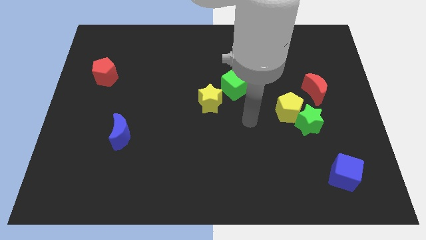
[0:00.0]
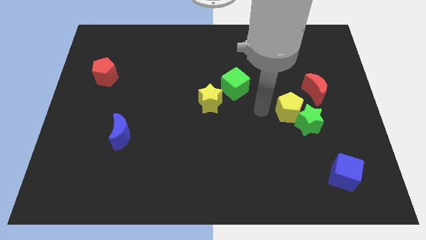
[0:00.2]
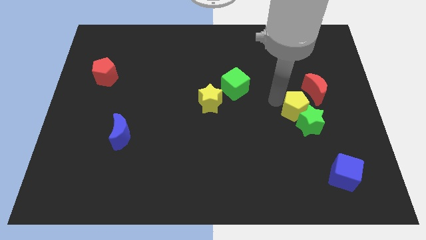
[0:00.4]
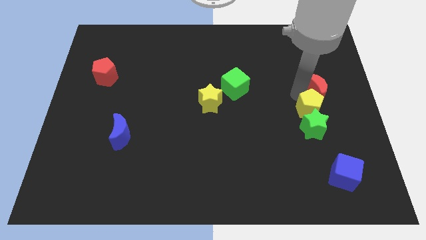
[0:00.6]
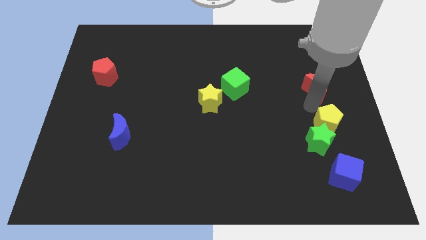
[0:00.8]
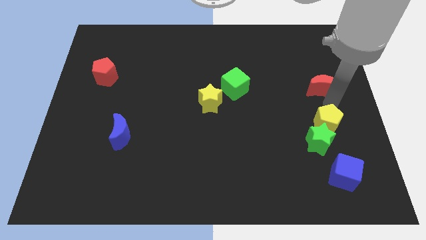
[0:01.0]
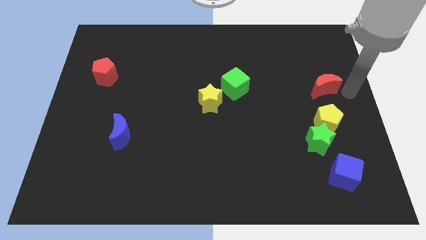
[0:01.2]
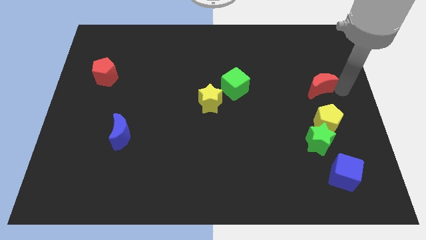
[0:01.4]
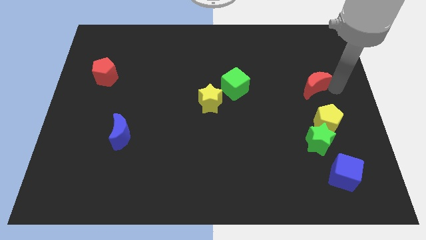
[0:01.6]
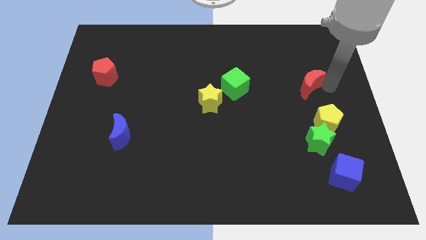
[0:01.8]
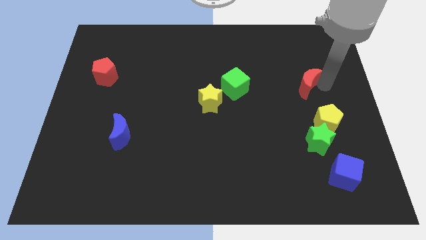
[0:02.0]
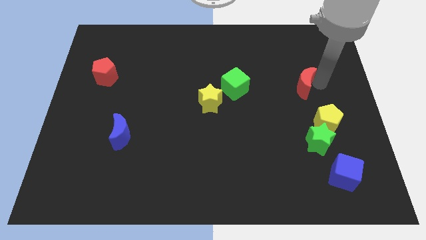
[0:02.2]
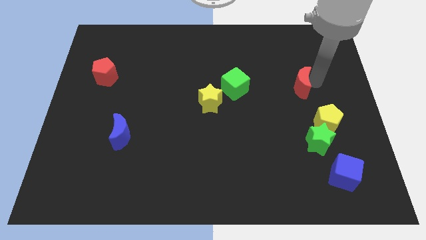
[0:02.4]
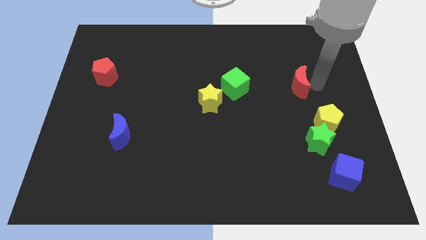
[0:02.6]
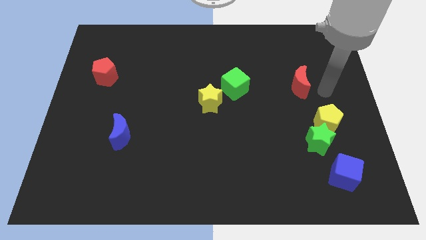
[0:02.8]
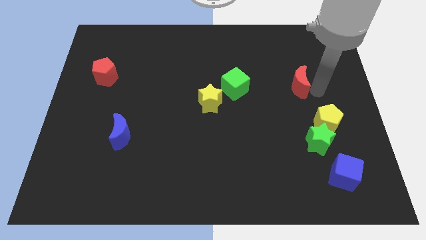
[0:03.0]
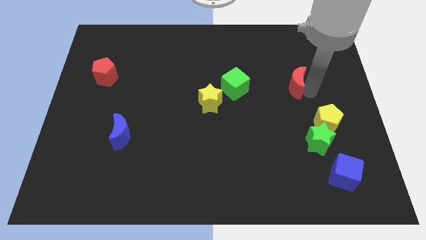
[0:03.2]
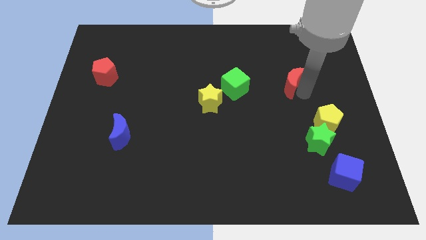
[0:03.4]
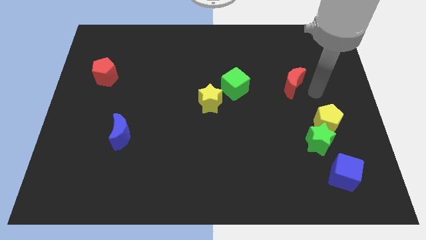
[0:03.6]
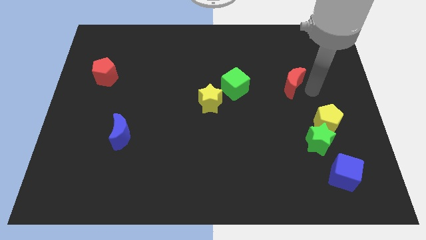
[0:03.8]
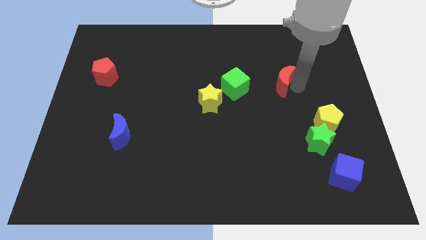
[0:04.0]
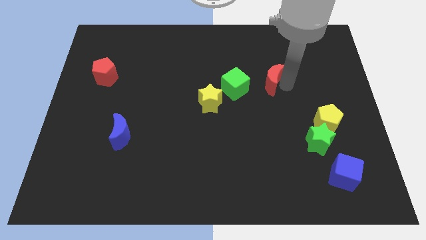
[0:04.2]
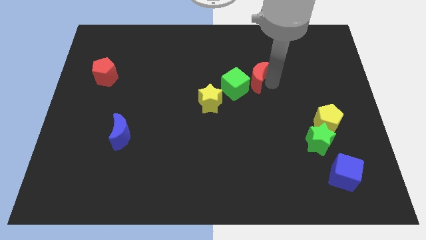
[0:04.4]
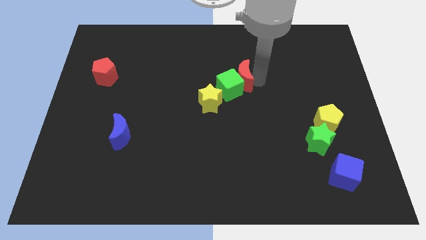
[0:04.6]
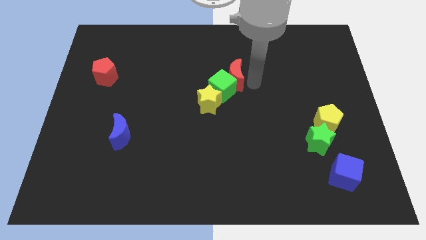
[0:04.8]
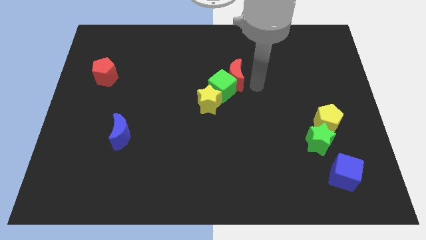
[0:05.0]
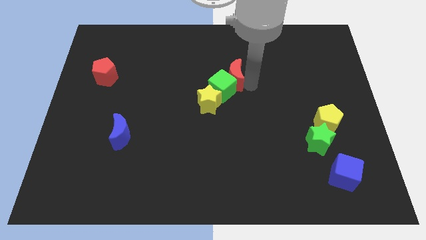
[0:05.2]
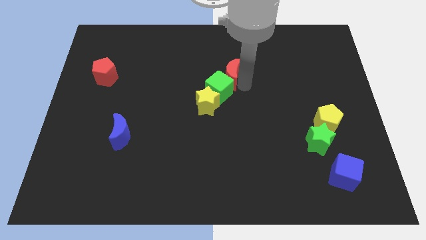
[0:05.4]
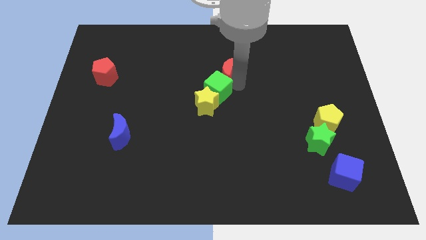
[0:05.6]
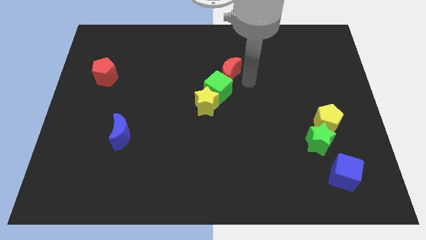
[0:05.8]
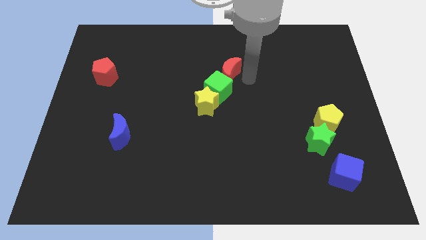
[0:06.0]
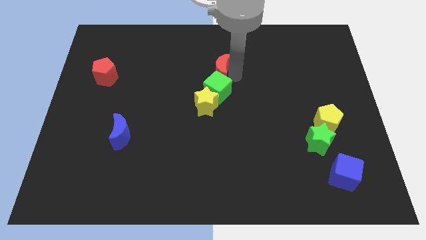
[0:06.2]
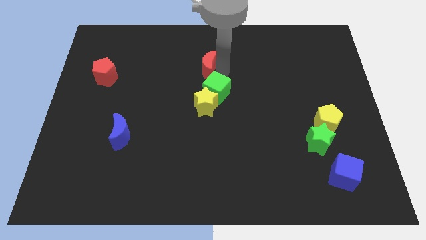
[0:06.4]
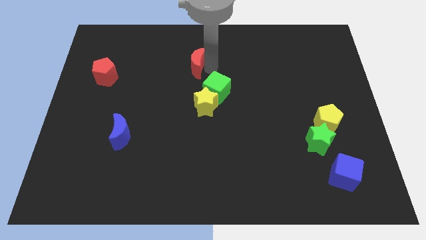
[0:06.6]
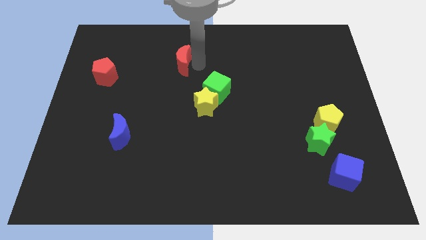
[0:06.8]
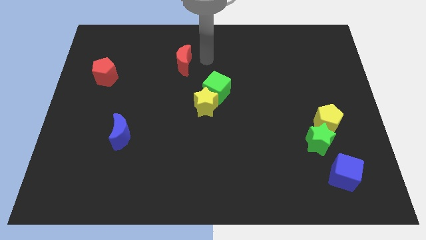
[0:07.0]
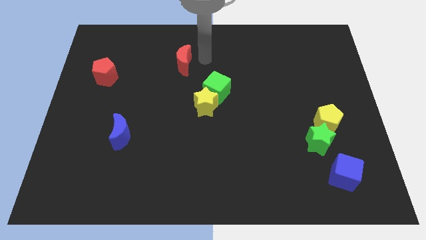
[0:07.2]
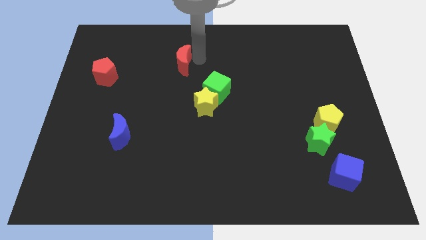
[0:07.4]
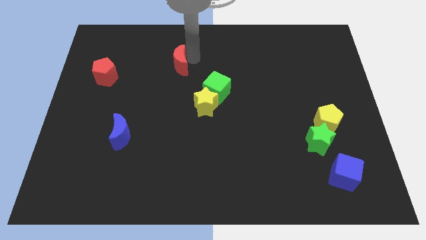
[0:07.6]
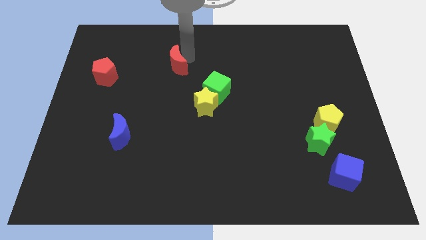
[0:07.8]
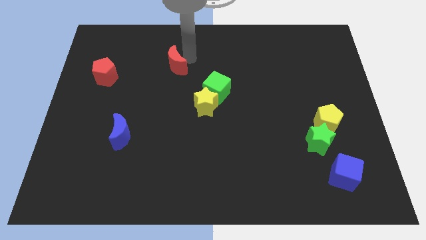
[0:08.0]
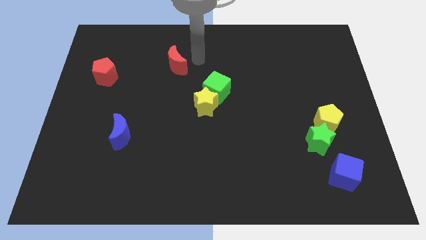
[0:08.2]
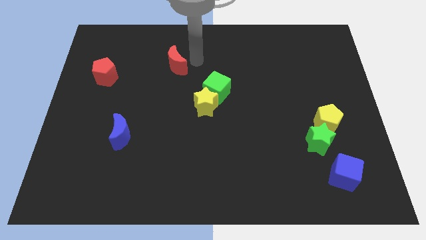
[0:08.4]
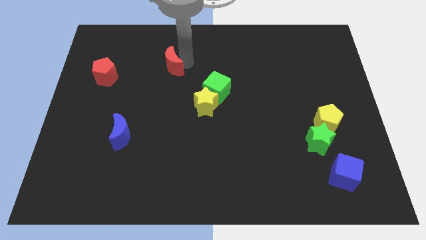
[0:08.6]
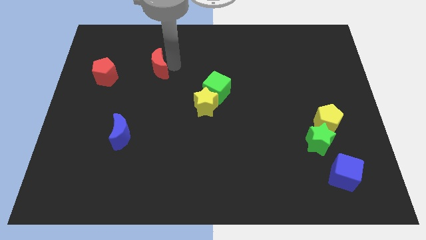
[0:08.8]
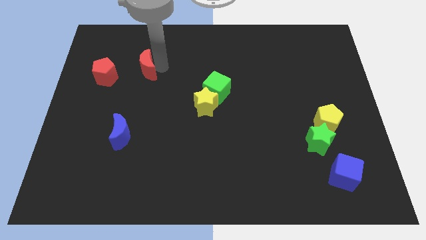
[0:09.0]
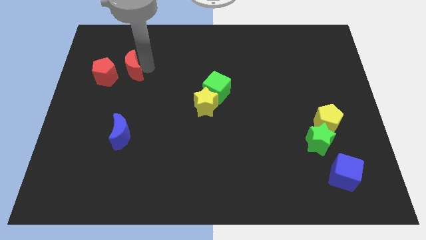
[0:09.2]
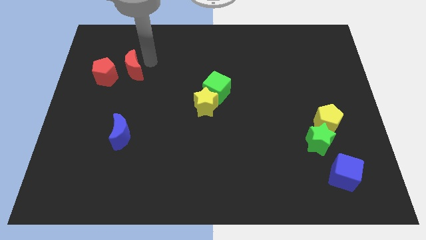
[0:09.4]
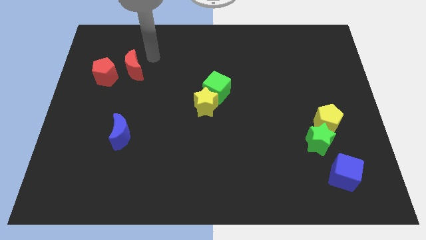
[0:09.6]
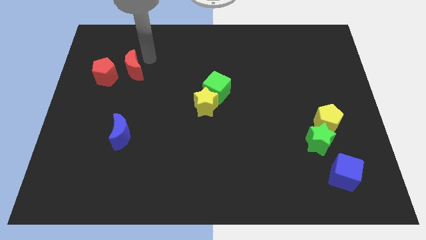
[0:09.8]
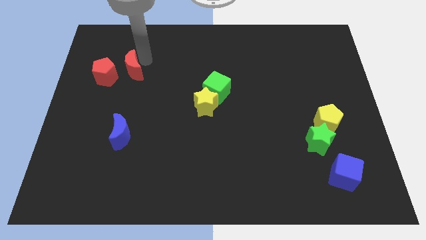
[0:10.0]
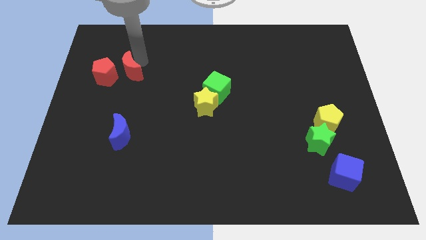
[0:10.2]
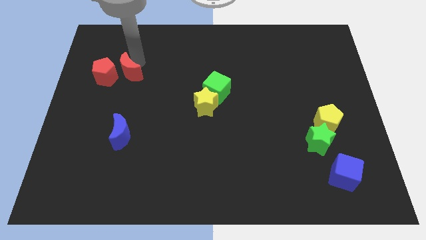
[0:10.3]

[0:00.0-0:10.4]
slide the red moon towards the red pentagon

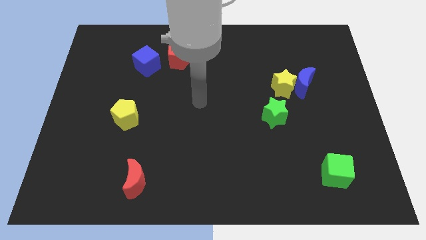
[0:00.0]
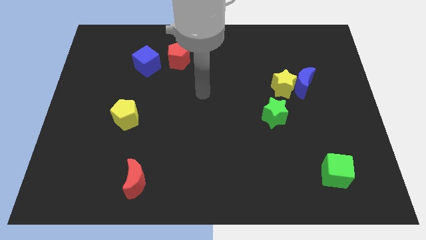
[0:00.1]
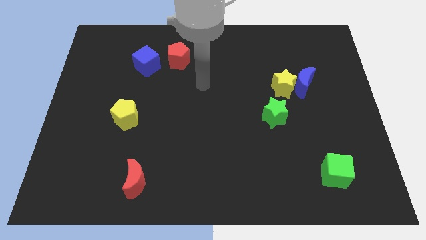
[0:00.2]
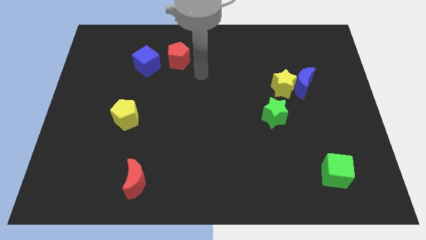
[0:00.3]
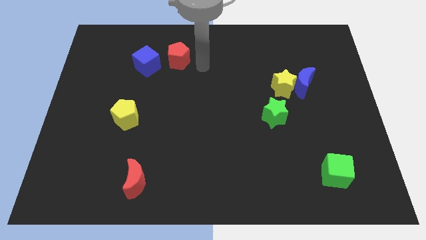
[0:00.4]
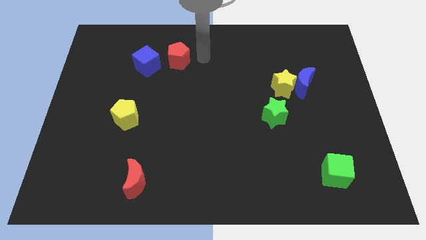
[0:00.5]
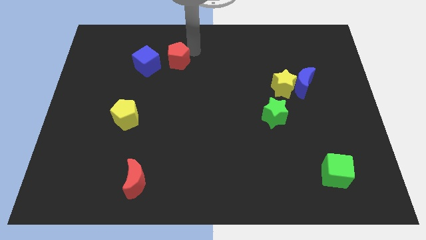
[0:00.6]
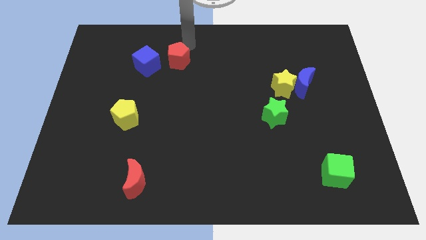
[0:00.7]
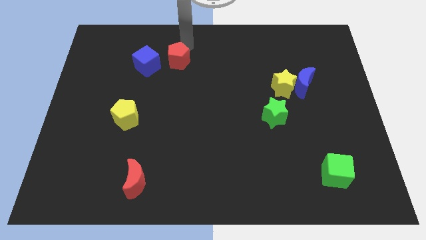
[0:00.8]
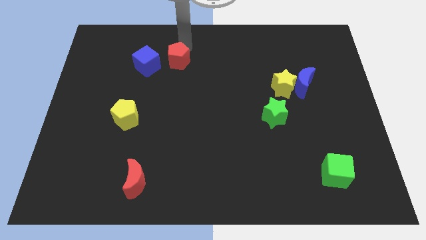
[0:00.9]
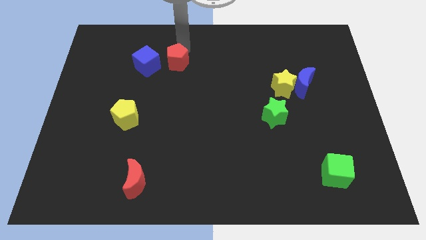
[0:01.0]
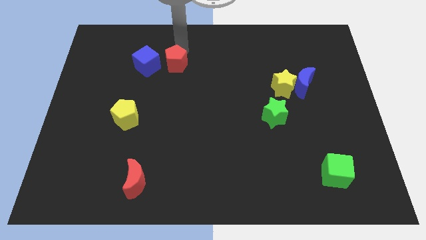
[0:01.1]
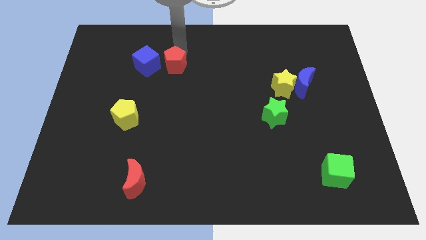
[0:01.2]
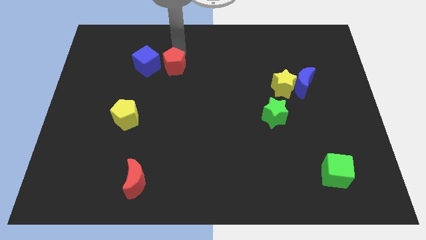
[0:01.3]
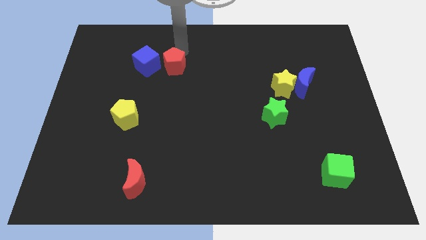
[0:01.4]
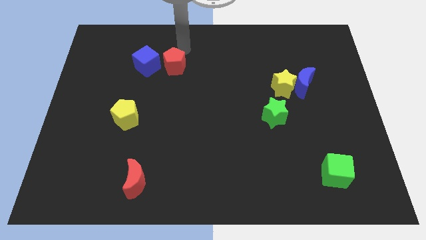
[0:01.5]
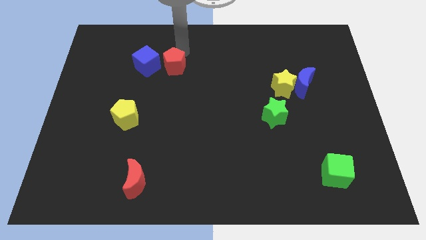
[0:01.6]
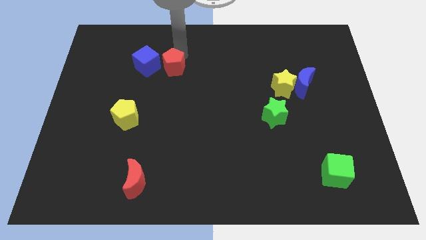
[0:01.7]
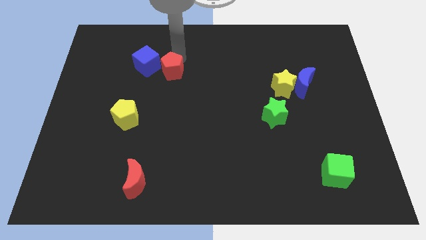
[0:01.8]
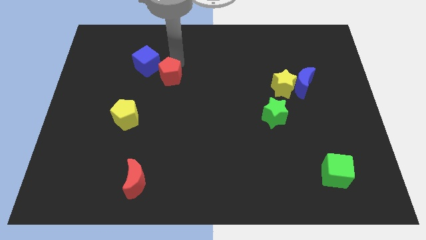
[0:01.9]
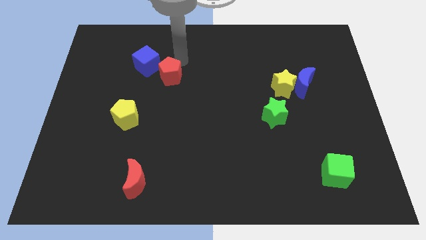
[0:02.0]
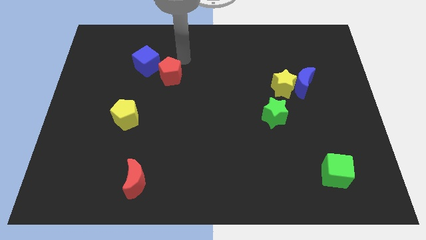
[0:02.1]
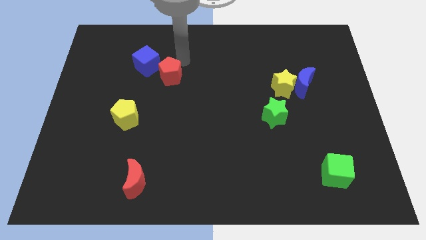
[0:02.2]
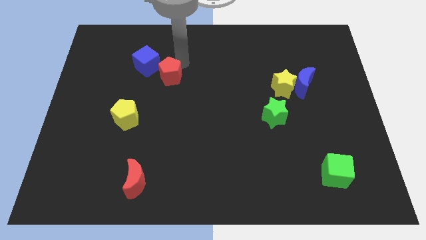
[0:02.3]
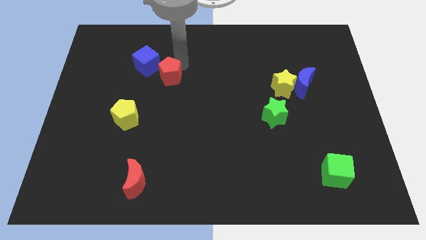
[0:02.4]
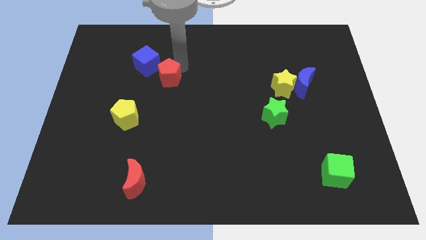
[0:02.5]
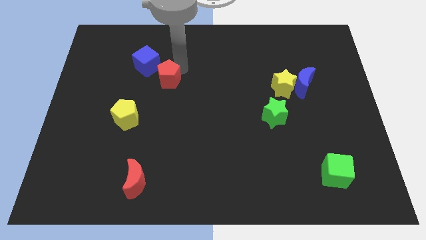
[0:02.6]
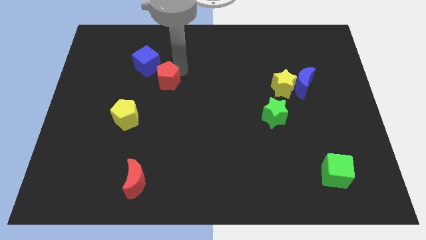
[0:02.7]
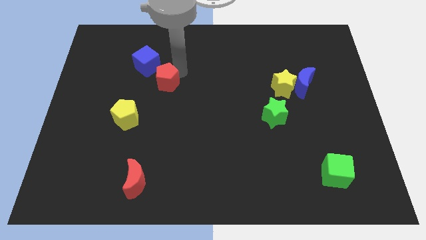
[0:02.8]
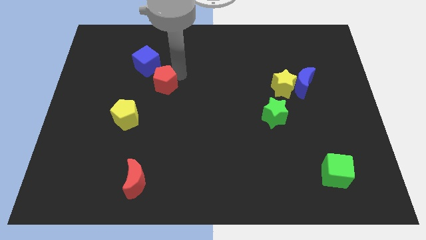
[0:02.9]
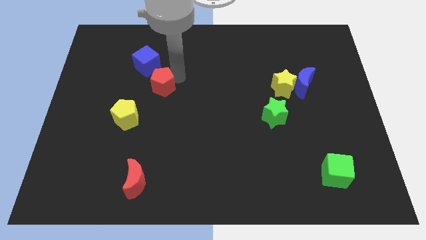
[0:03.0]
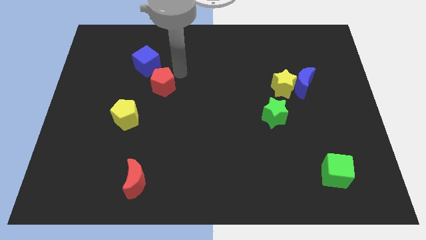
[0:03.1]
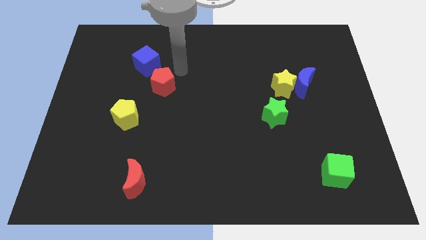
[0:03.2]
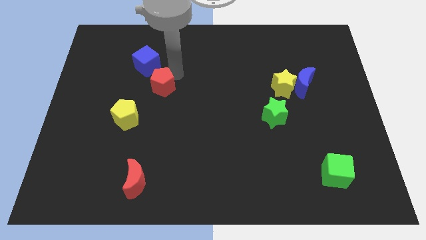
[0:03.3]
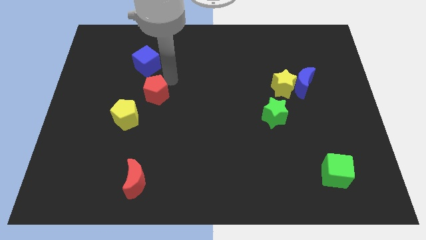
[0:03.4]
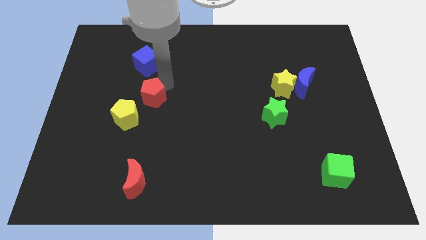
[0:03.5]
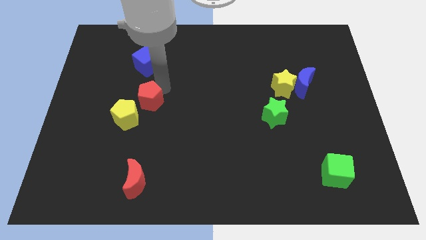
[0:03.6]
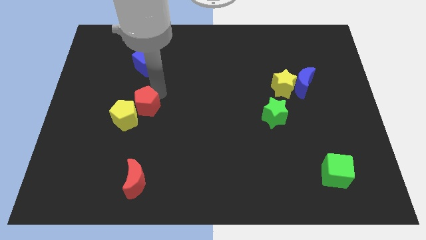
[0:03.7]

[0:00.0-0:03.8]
put the red pentagon next to the yellow pentagon
